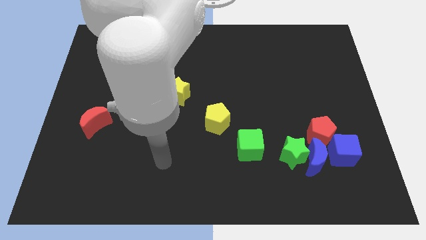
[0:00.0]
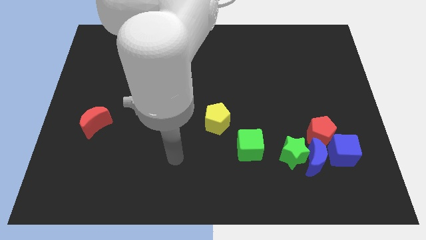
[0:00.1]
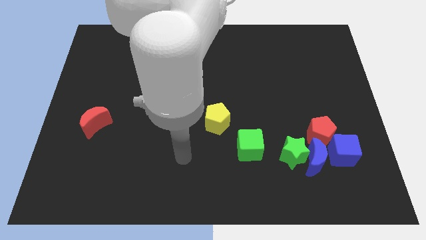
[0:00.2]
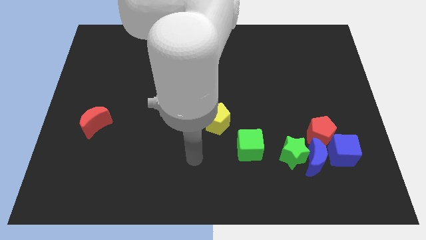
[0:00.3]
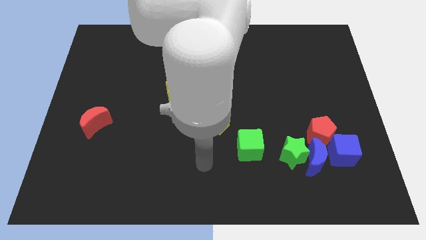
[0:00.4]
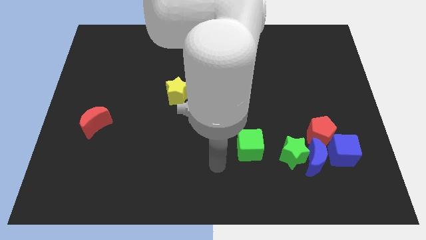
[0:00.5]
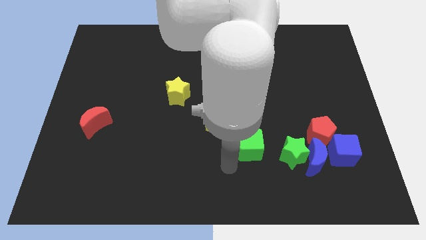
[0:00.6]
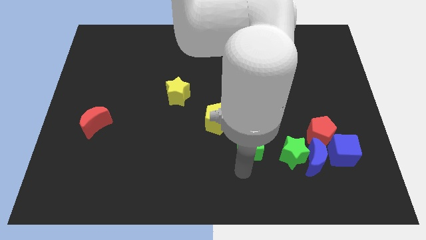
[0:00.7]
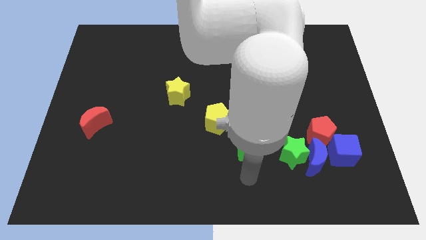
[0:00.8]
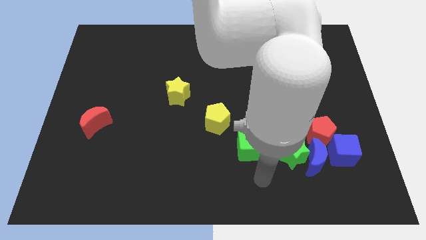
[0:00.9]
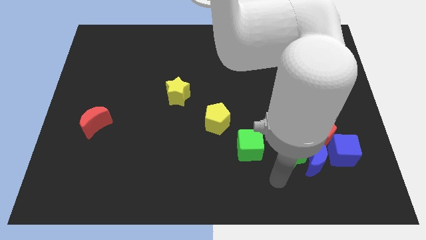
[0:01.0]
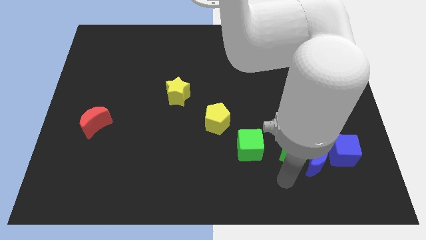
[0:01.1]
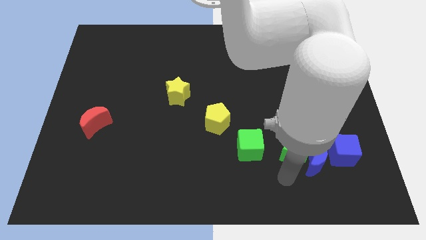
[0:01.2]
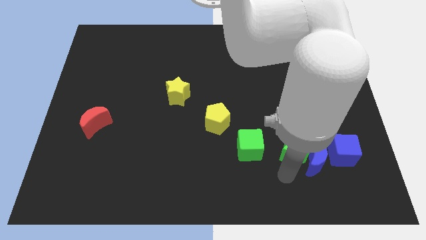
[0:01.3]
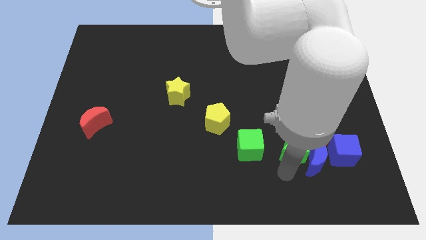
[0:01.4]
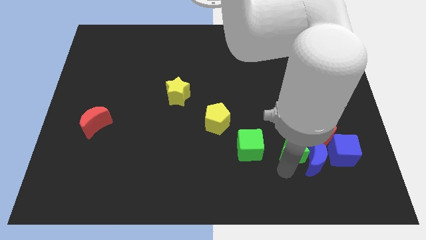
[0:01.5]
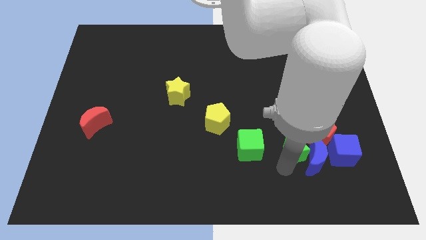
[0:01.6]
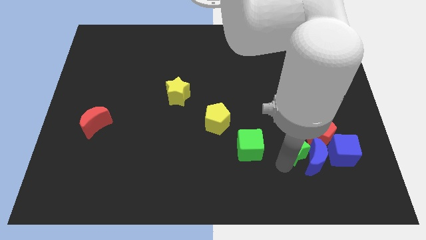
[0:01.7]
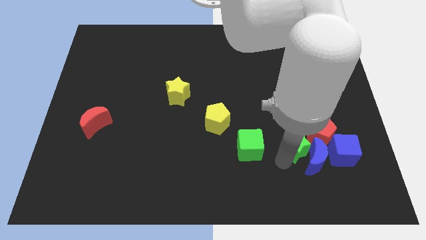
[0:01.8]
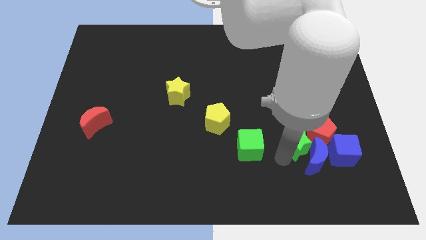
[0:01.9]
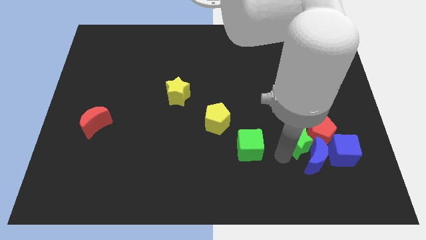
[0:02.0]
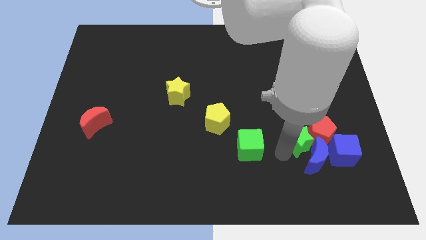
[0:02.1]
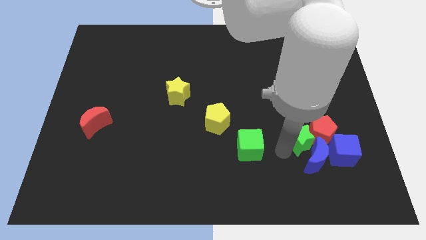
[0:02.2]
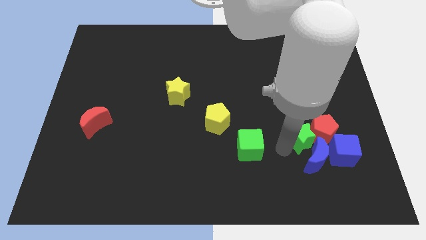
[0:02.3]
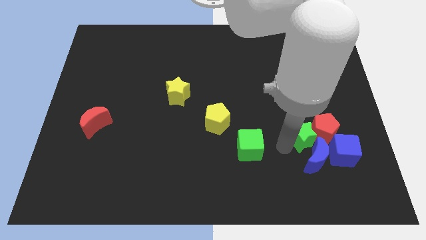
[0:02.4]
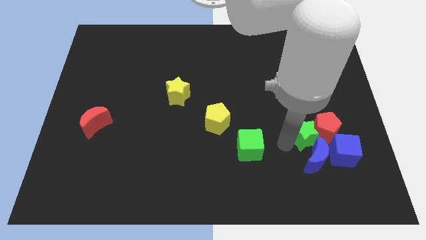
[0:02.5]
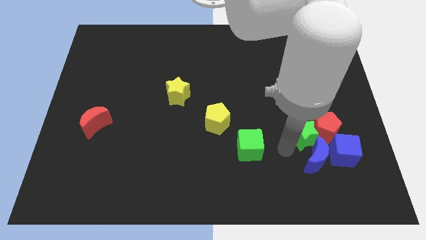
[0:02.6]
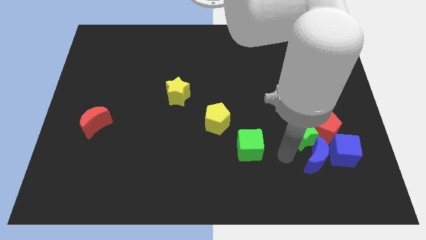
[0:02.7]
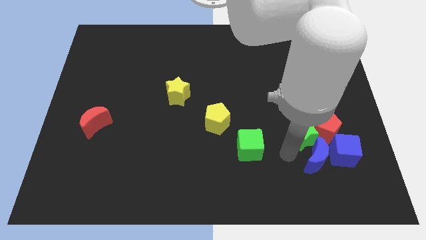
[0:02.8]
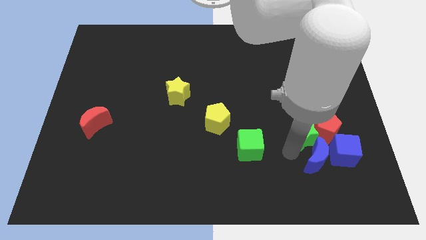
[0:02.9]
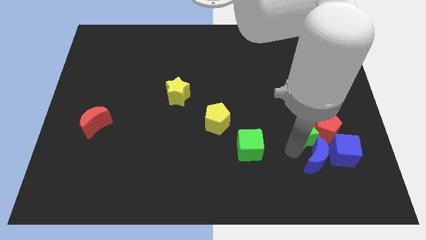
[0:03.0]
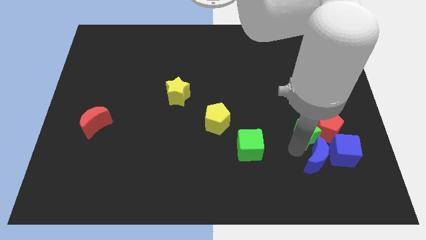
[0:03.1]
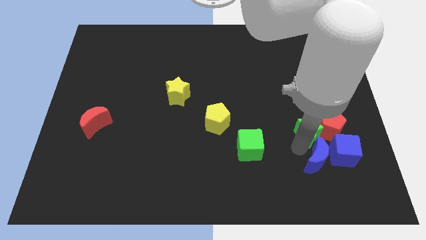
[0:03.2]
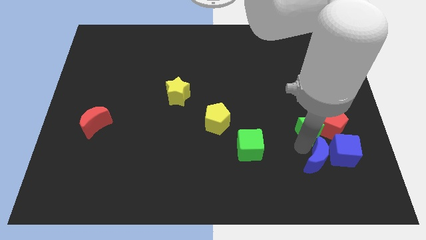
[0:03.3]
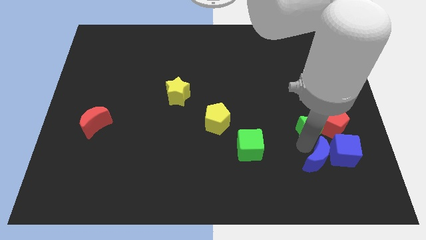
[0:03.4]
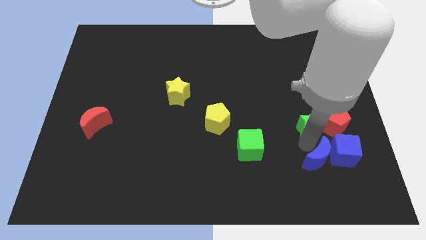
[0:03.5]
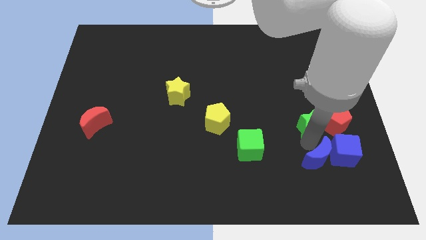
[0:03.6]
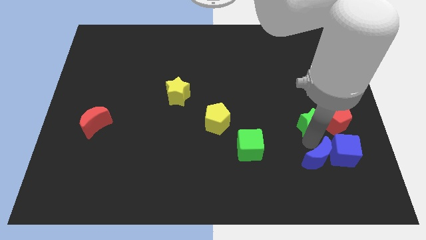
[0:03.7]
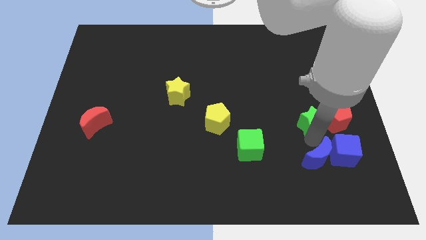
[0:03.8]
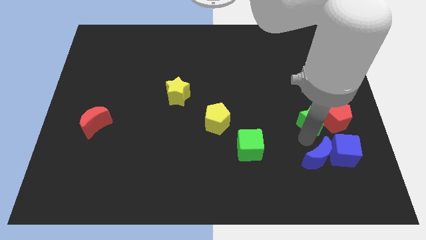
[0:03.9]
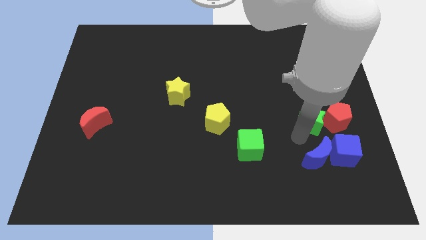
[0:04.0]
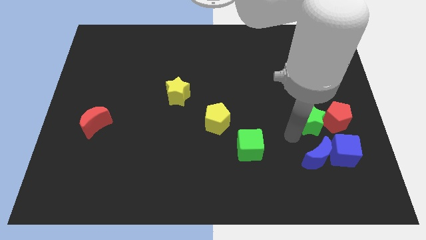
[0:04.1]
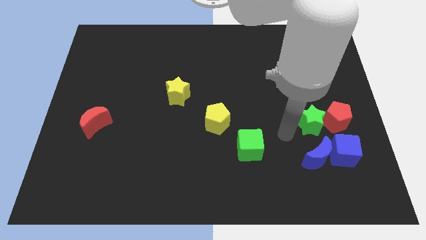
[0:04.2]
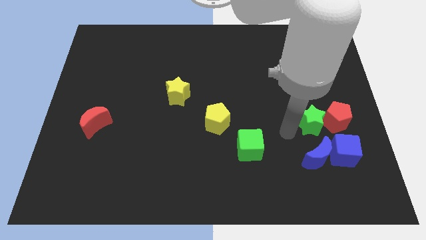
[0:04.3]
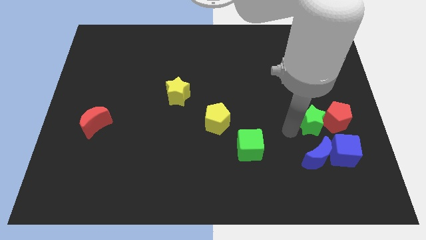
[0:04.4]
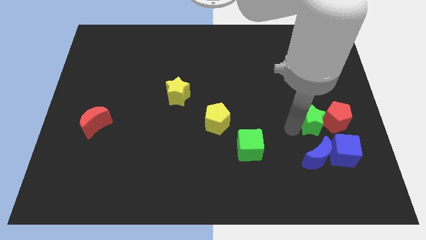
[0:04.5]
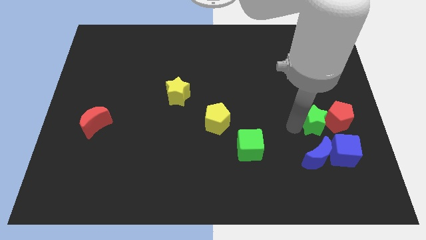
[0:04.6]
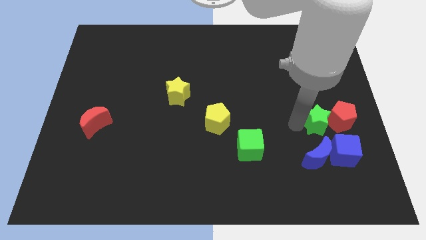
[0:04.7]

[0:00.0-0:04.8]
put the green star to the top side of the blue cube

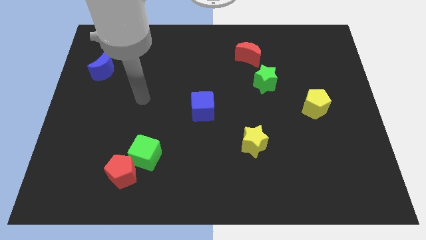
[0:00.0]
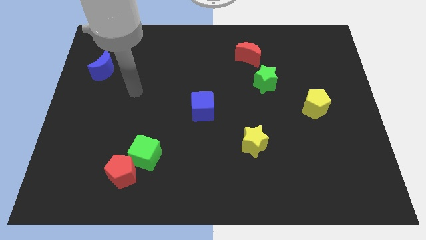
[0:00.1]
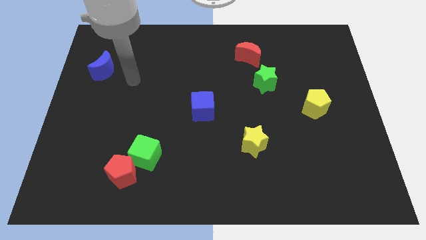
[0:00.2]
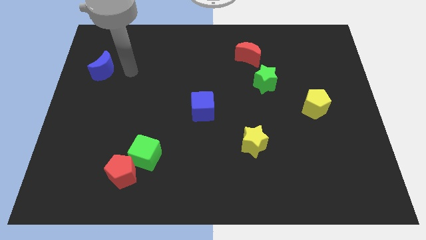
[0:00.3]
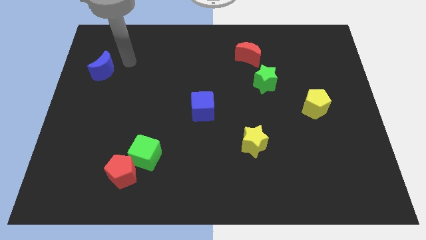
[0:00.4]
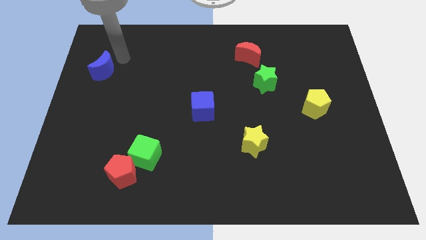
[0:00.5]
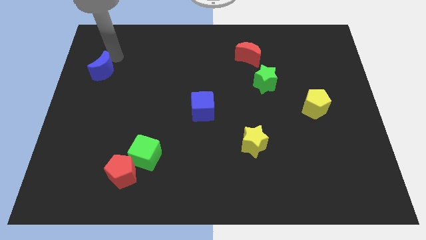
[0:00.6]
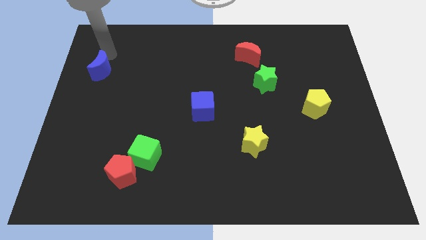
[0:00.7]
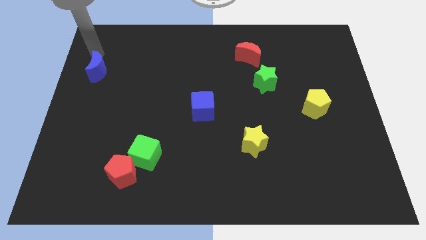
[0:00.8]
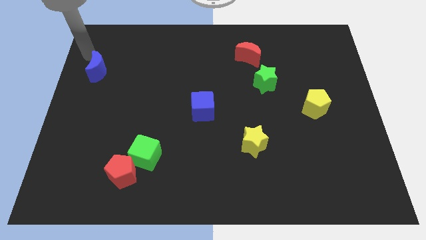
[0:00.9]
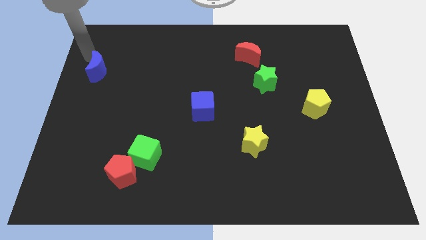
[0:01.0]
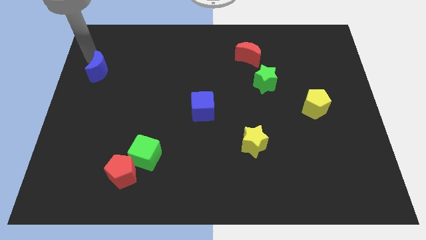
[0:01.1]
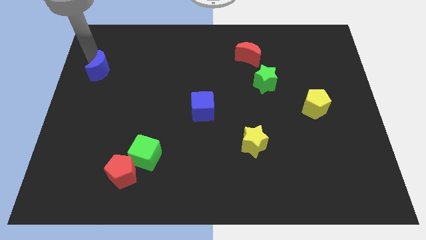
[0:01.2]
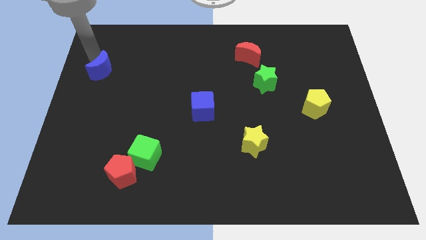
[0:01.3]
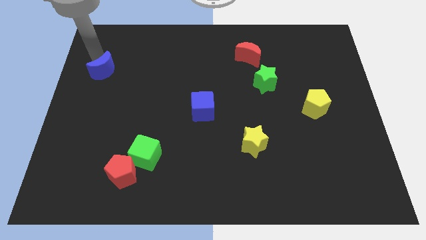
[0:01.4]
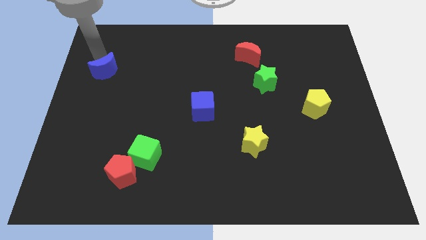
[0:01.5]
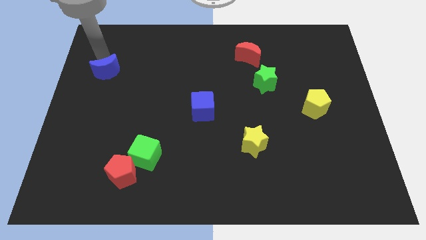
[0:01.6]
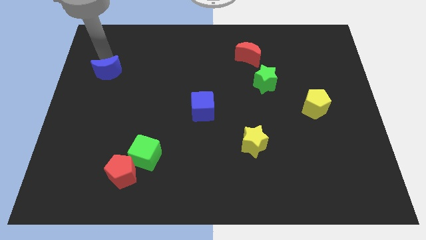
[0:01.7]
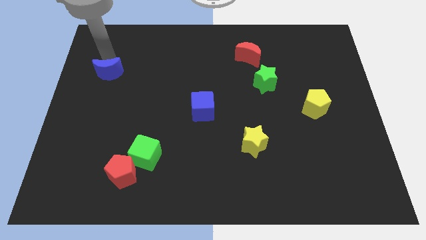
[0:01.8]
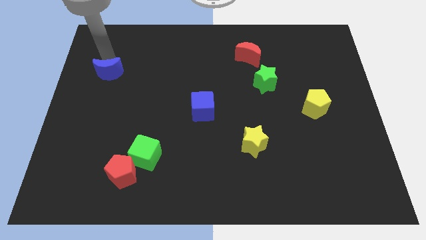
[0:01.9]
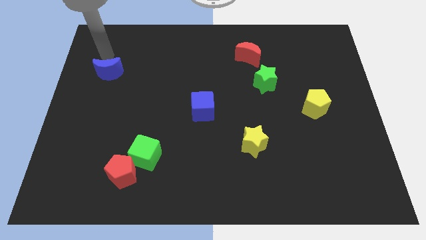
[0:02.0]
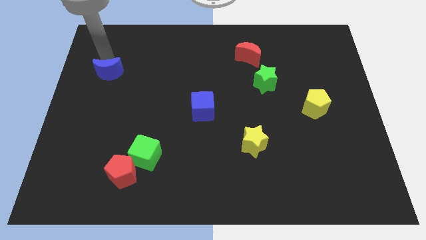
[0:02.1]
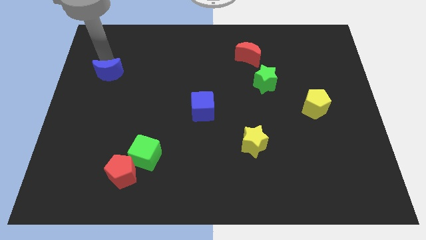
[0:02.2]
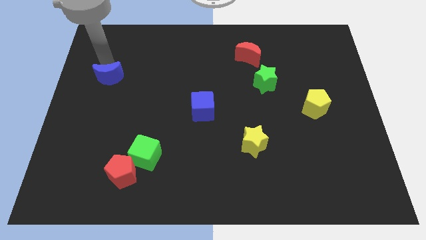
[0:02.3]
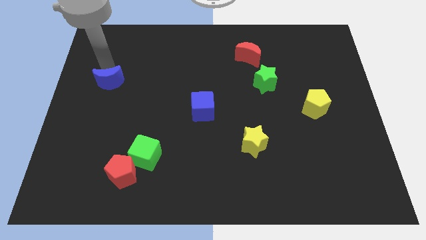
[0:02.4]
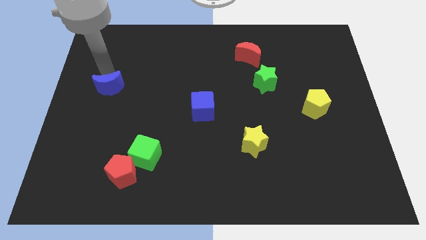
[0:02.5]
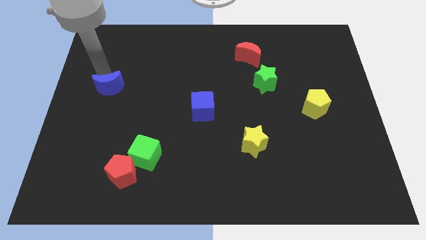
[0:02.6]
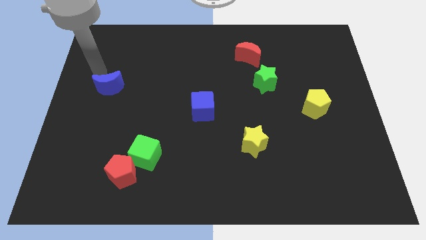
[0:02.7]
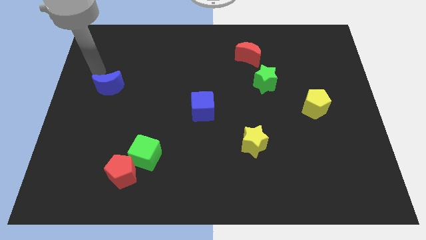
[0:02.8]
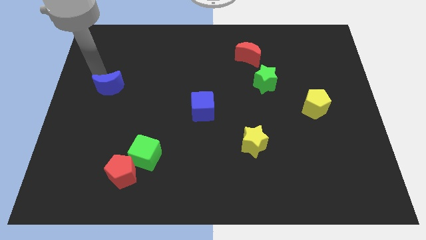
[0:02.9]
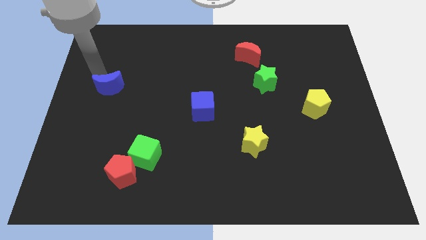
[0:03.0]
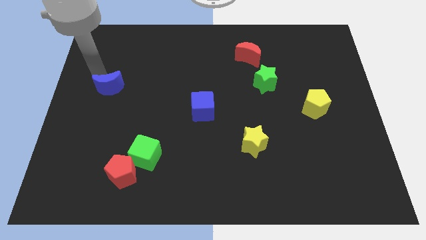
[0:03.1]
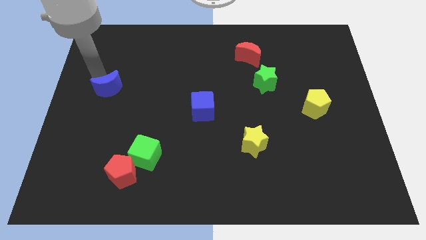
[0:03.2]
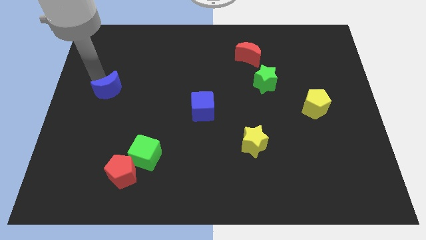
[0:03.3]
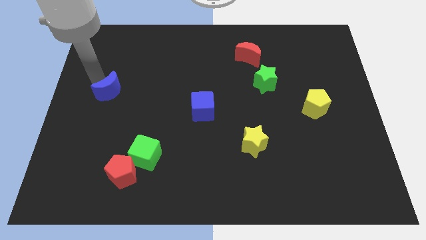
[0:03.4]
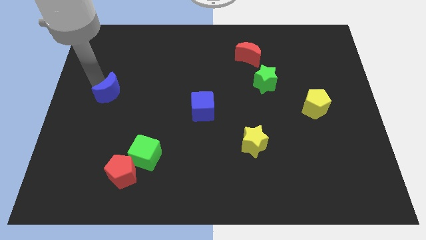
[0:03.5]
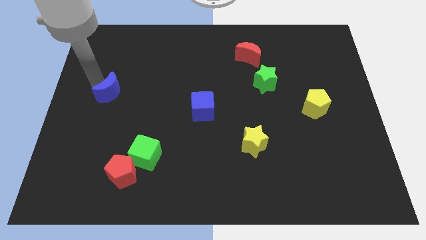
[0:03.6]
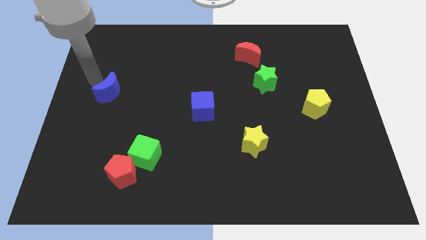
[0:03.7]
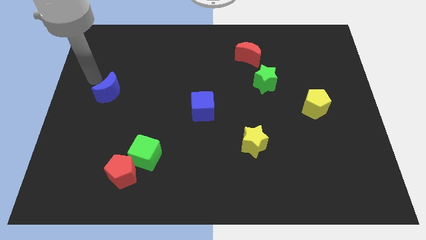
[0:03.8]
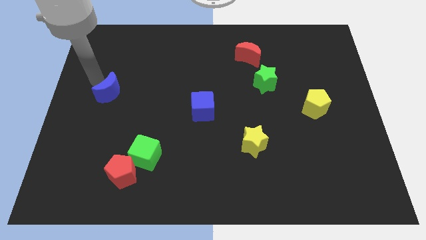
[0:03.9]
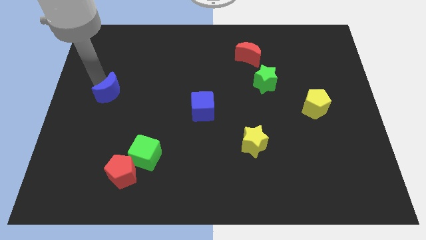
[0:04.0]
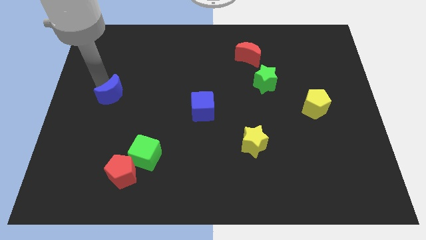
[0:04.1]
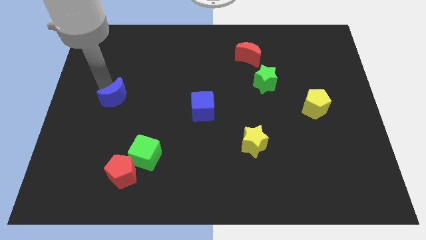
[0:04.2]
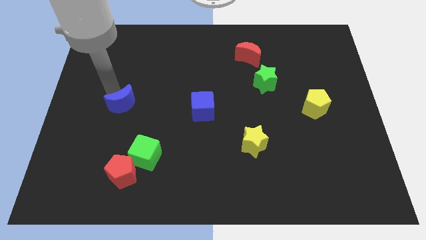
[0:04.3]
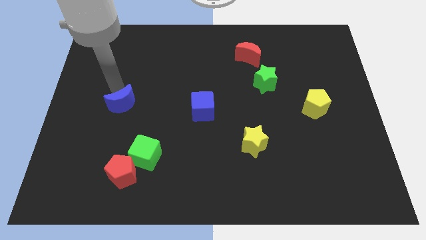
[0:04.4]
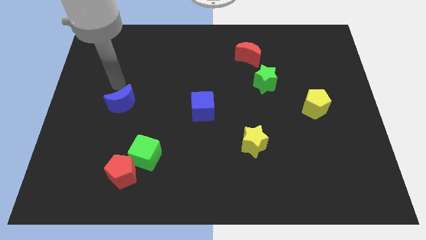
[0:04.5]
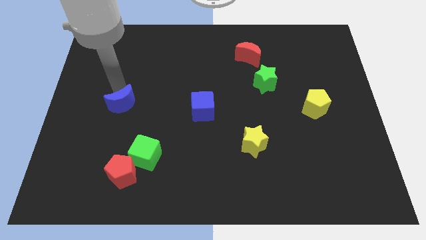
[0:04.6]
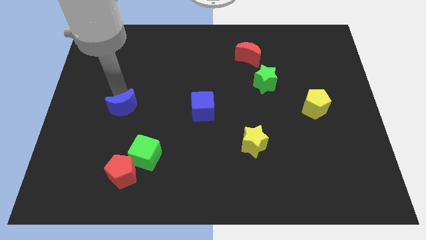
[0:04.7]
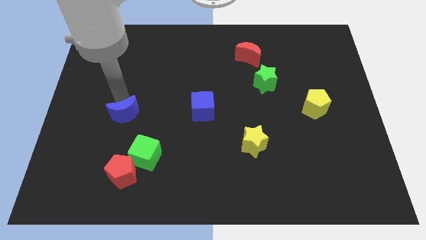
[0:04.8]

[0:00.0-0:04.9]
move the blue moon to the top of the red pentagon
